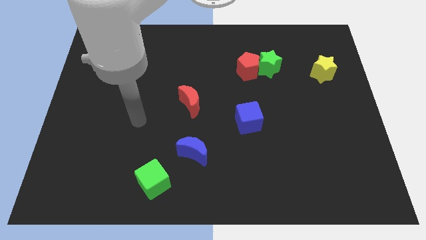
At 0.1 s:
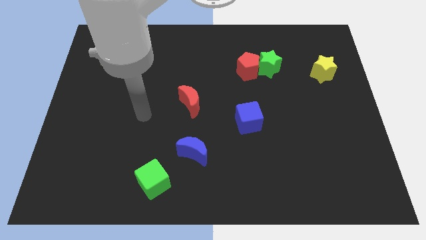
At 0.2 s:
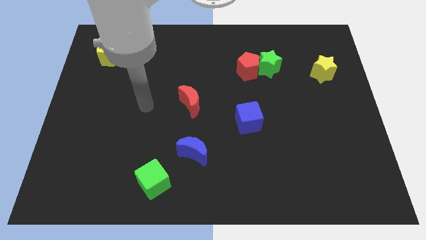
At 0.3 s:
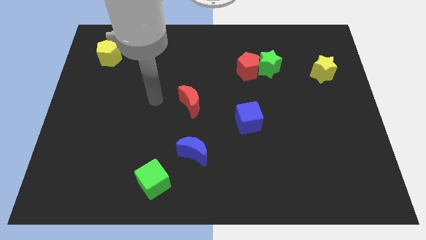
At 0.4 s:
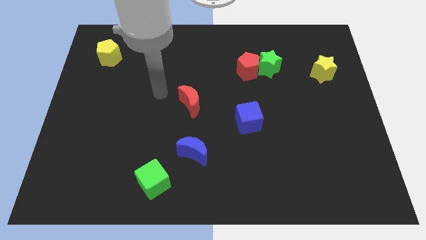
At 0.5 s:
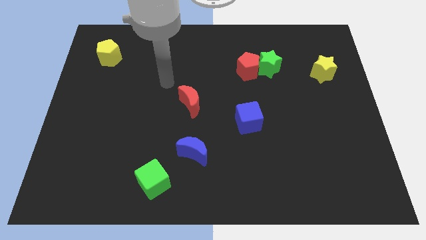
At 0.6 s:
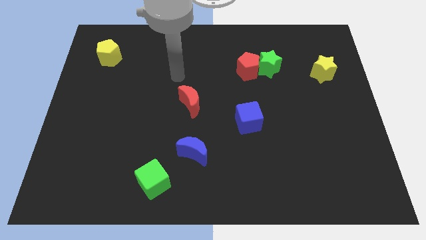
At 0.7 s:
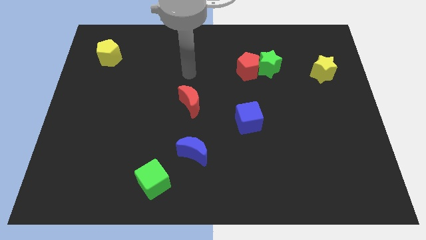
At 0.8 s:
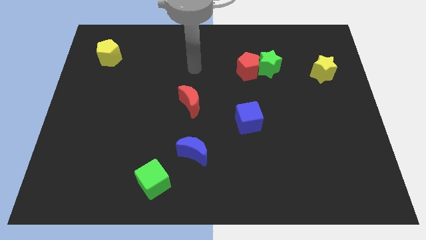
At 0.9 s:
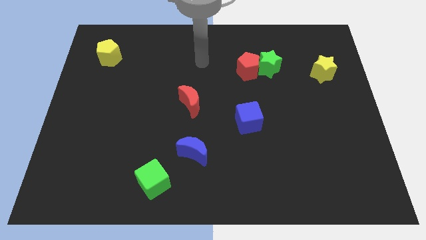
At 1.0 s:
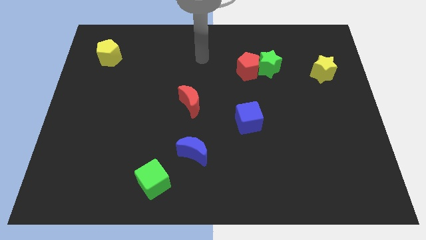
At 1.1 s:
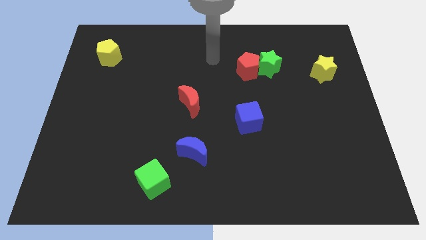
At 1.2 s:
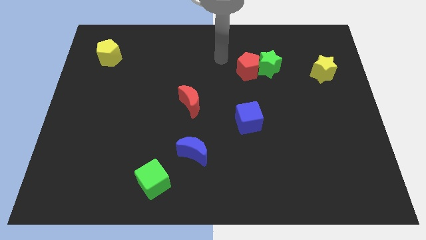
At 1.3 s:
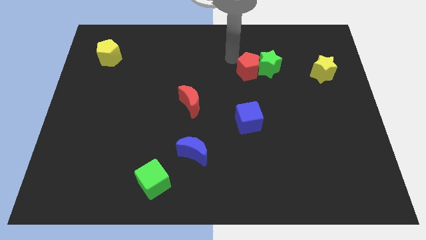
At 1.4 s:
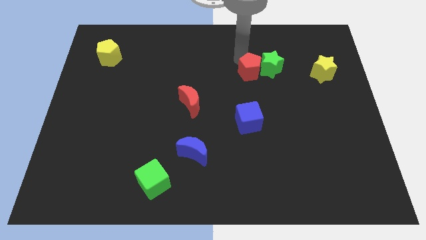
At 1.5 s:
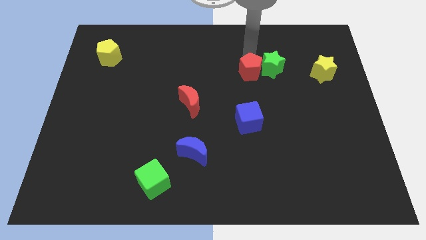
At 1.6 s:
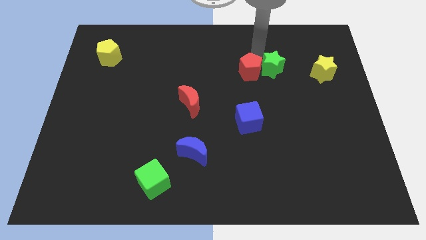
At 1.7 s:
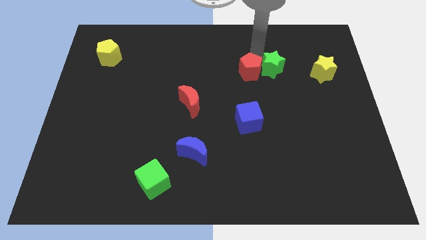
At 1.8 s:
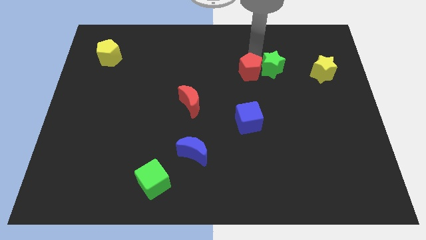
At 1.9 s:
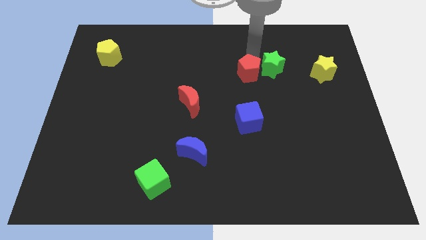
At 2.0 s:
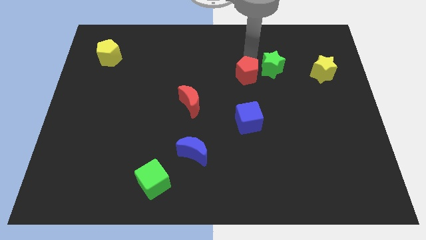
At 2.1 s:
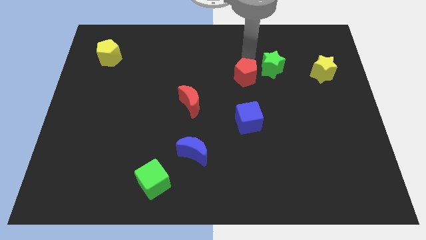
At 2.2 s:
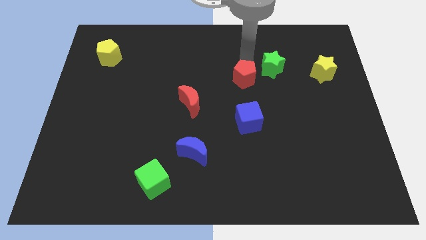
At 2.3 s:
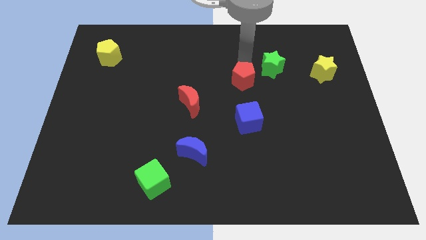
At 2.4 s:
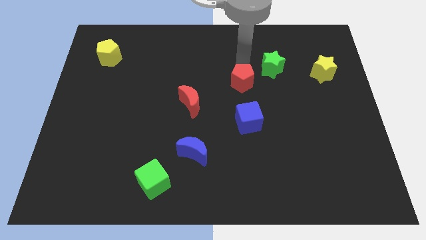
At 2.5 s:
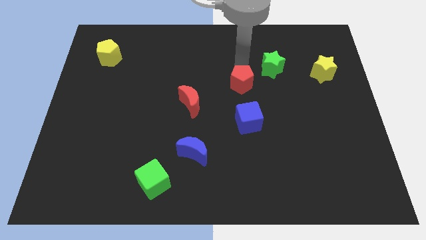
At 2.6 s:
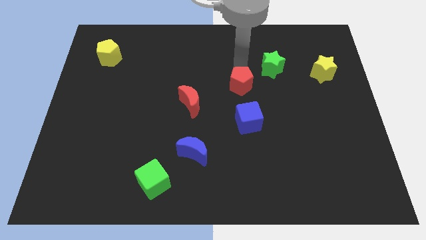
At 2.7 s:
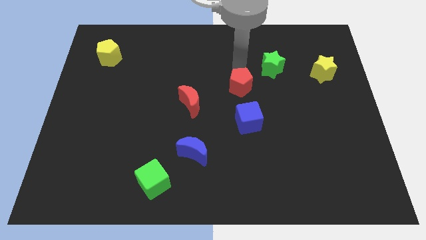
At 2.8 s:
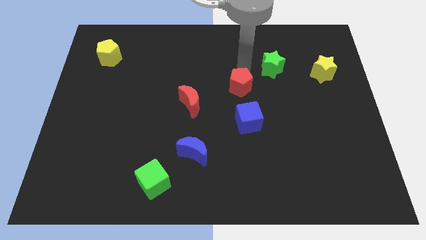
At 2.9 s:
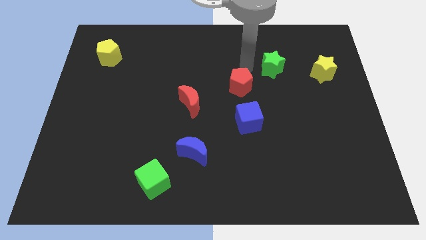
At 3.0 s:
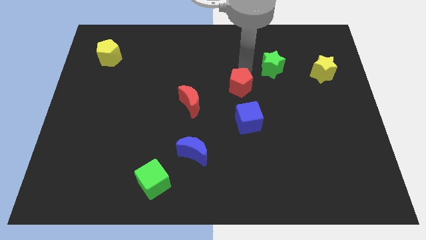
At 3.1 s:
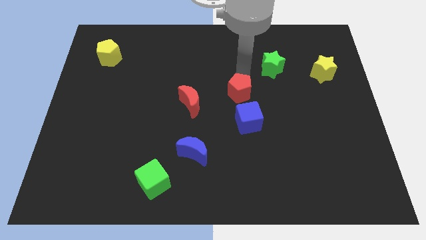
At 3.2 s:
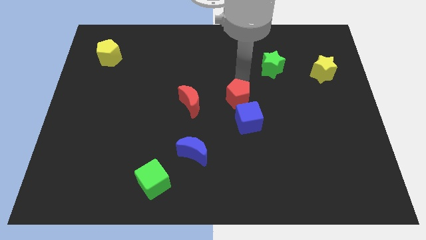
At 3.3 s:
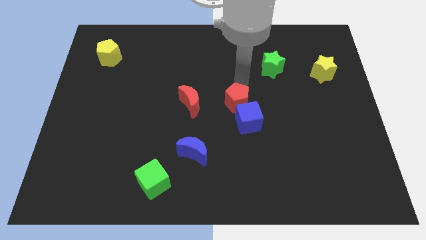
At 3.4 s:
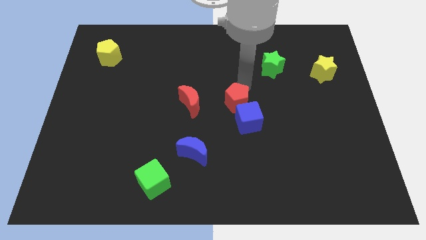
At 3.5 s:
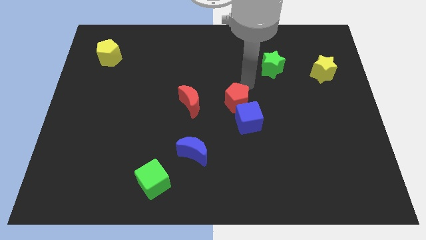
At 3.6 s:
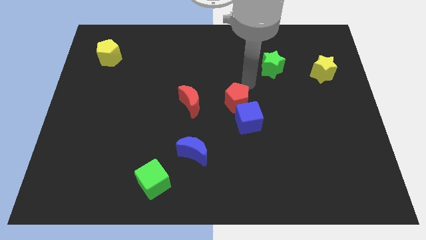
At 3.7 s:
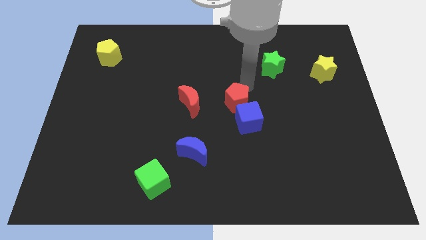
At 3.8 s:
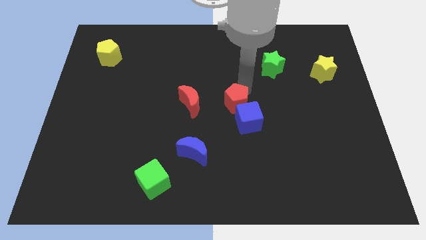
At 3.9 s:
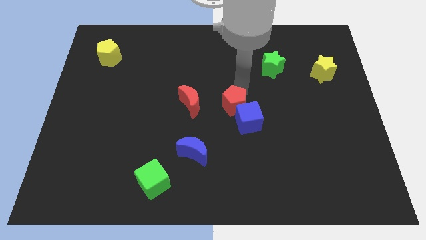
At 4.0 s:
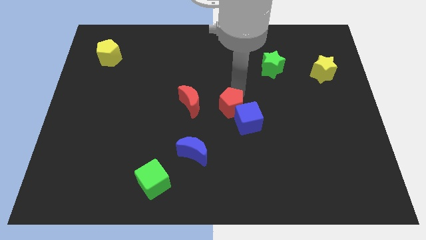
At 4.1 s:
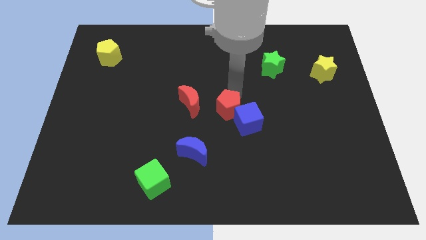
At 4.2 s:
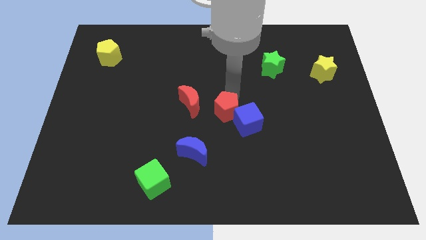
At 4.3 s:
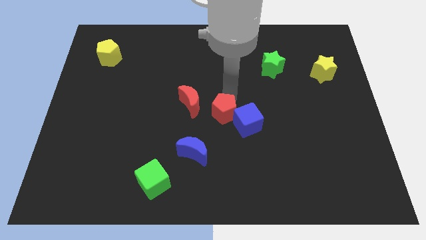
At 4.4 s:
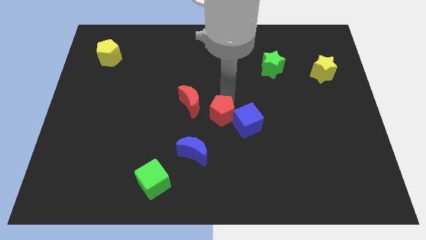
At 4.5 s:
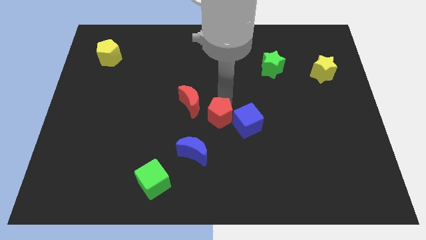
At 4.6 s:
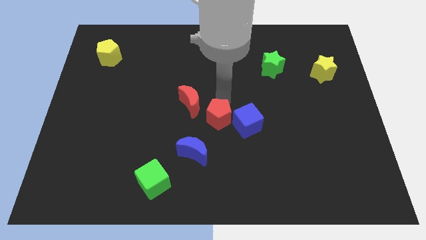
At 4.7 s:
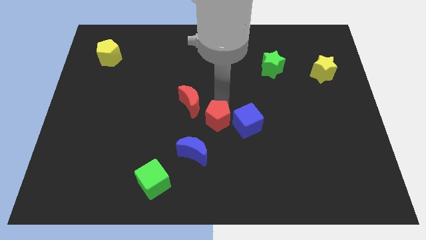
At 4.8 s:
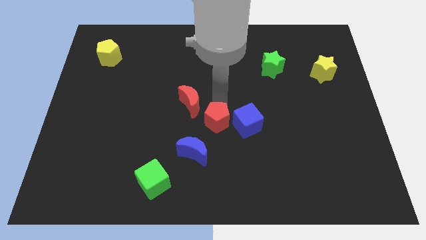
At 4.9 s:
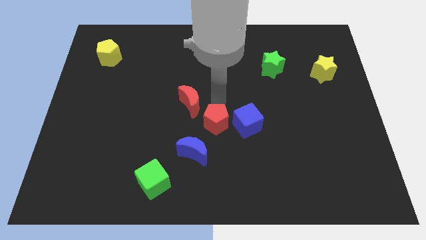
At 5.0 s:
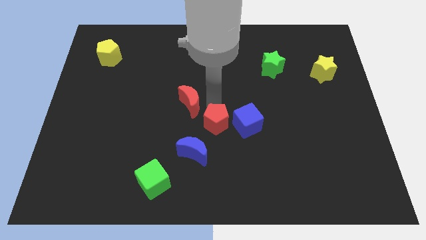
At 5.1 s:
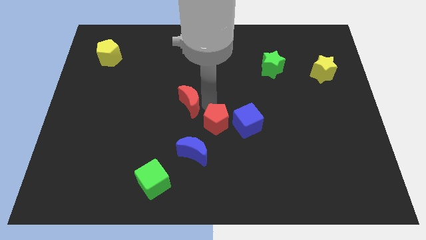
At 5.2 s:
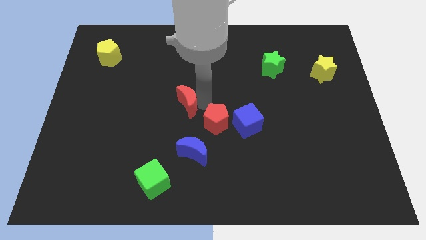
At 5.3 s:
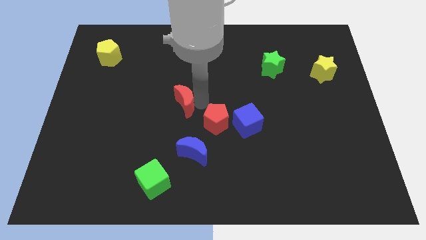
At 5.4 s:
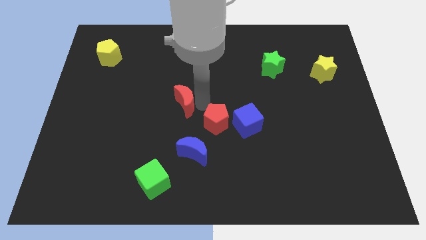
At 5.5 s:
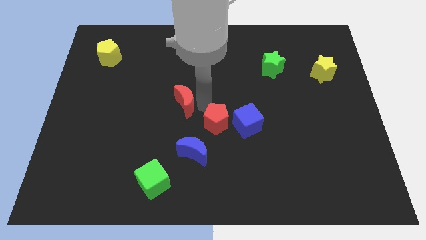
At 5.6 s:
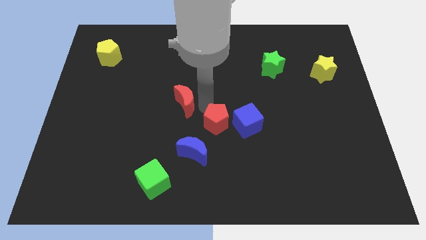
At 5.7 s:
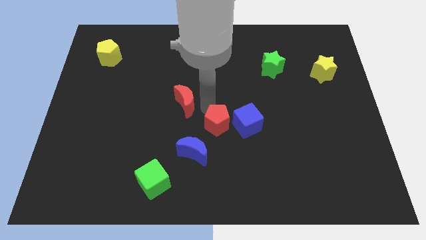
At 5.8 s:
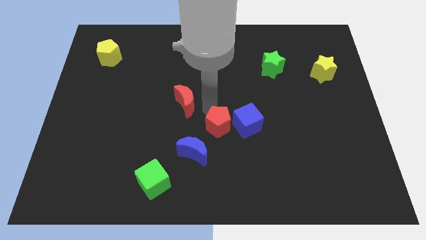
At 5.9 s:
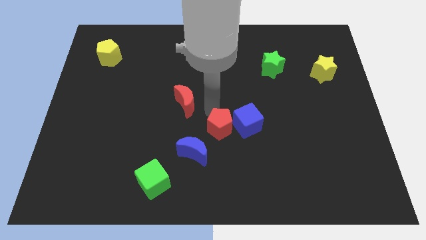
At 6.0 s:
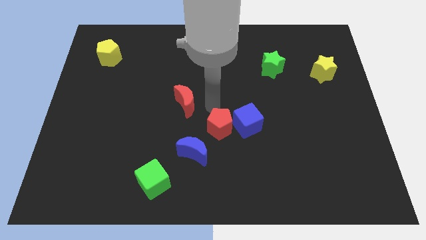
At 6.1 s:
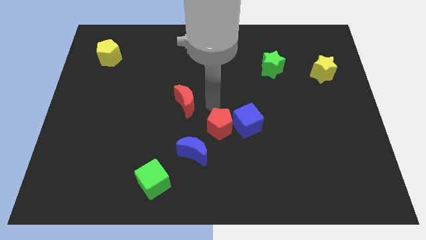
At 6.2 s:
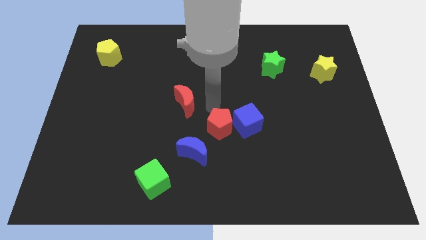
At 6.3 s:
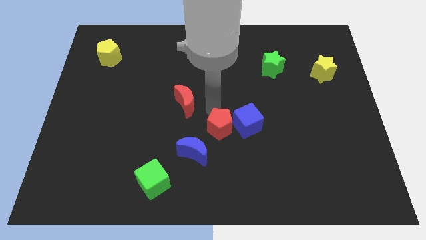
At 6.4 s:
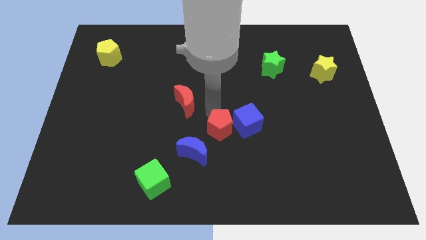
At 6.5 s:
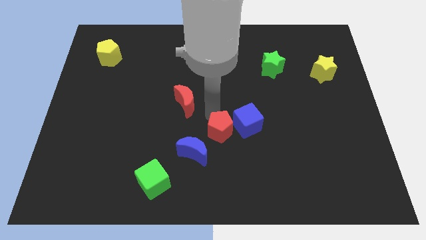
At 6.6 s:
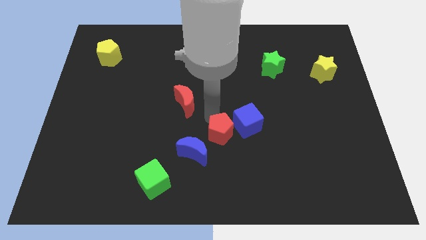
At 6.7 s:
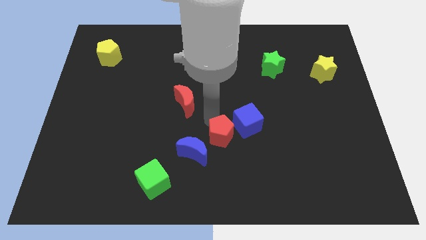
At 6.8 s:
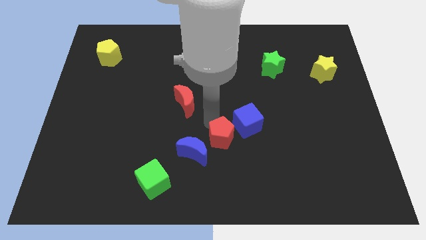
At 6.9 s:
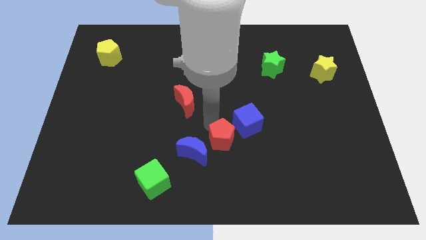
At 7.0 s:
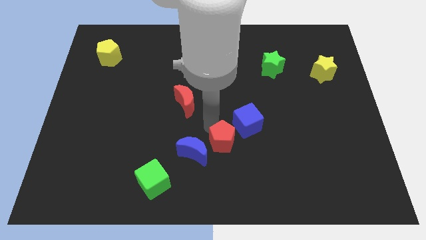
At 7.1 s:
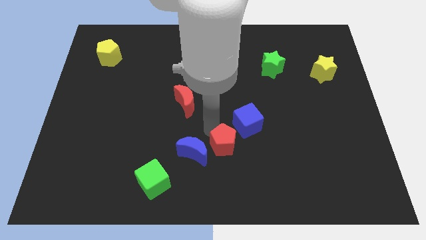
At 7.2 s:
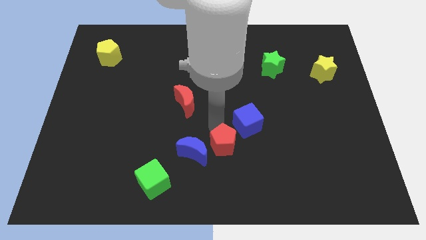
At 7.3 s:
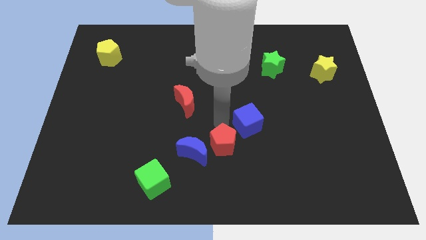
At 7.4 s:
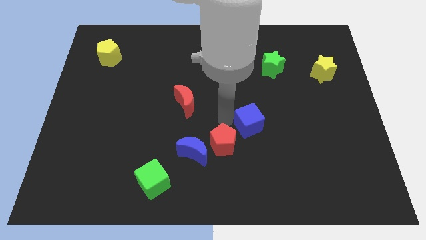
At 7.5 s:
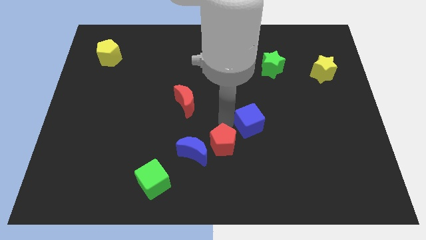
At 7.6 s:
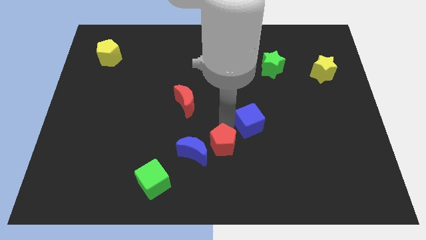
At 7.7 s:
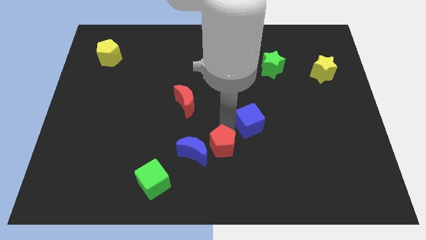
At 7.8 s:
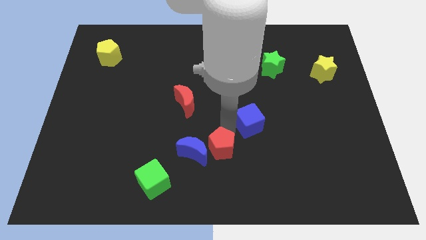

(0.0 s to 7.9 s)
move the red pentagon to the bottom right side of the blue moon

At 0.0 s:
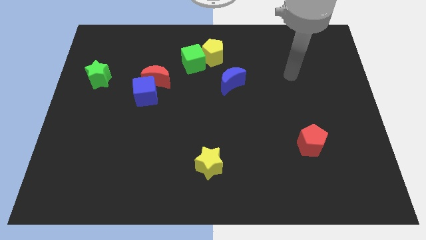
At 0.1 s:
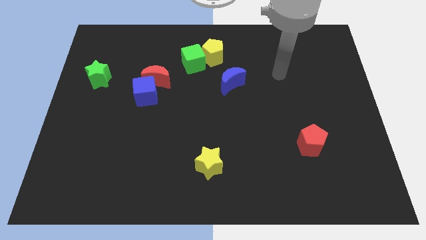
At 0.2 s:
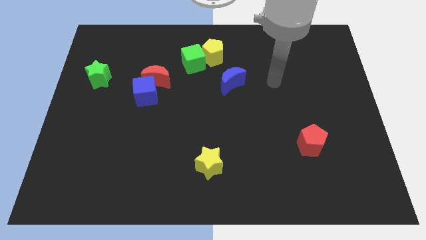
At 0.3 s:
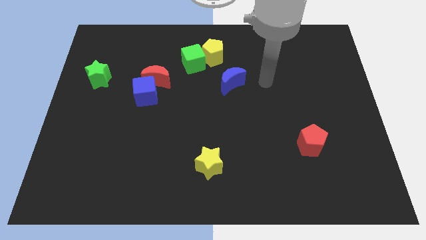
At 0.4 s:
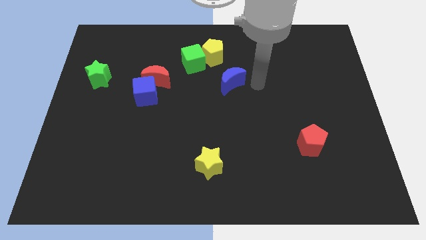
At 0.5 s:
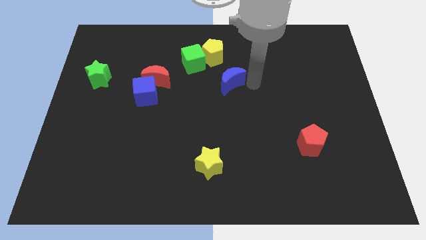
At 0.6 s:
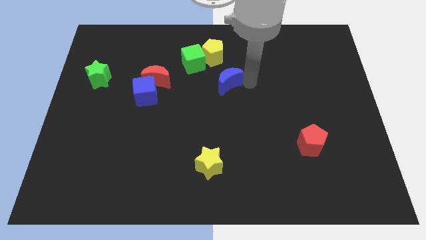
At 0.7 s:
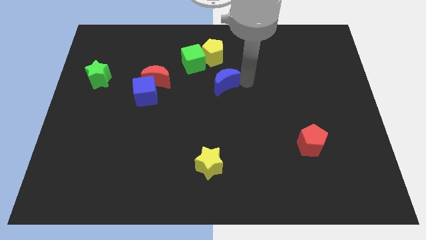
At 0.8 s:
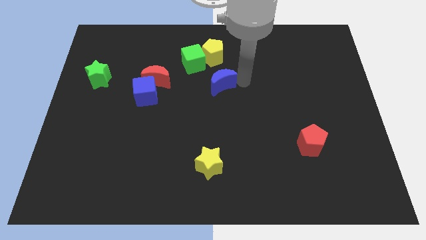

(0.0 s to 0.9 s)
move the blue moon right of the red moon
